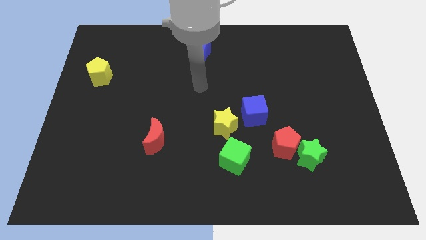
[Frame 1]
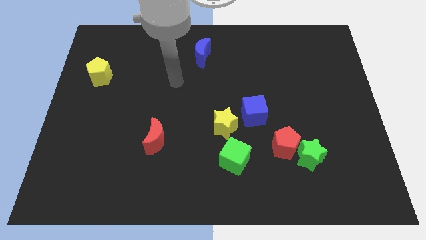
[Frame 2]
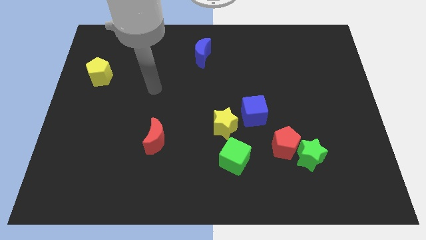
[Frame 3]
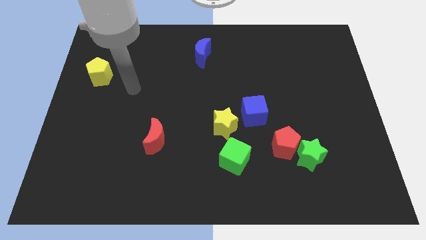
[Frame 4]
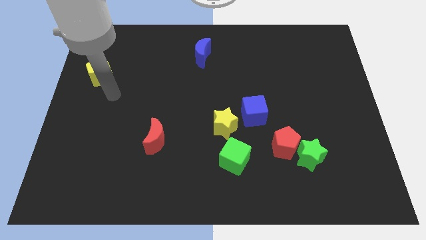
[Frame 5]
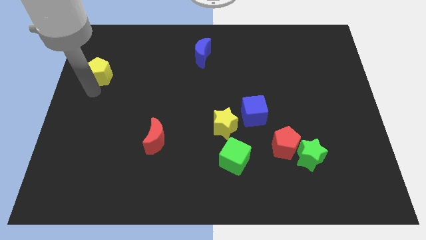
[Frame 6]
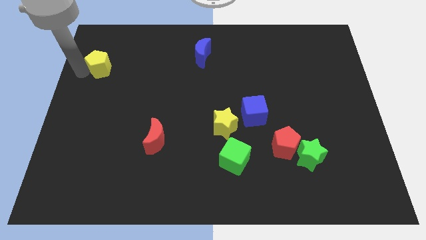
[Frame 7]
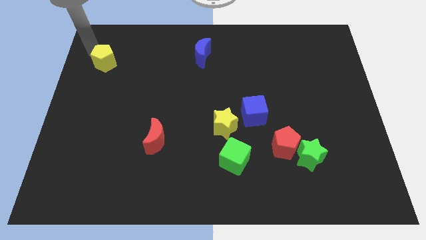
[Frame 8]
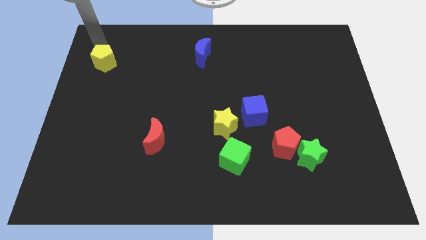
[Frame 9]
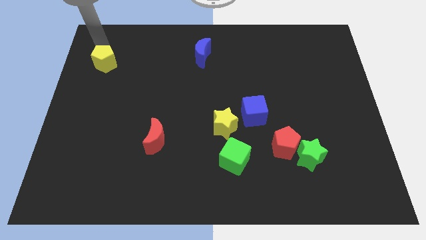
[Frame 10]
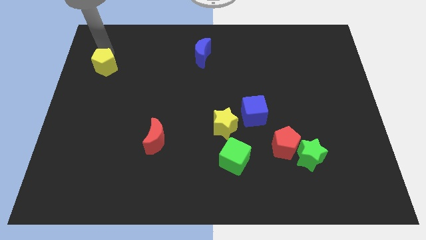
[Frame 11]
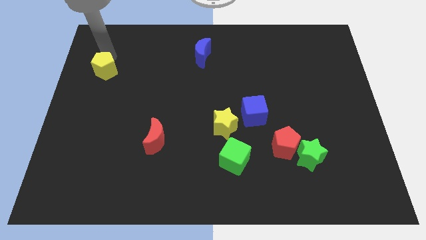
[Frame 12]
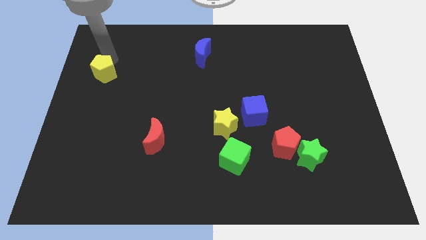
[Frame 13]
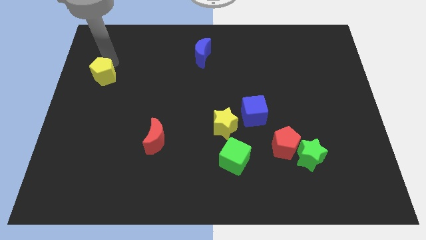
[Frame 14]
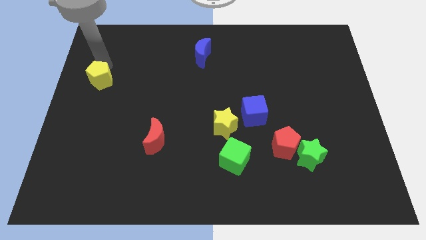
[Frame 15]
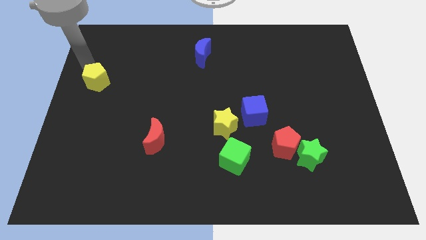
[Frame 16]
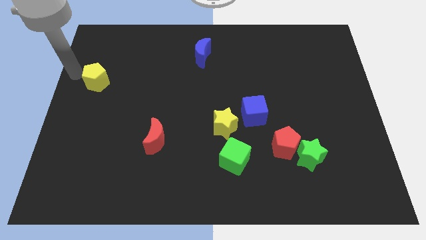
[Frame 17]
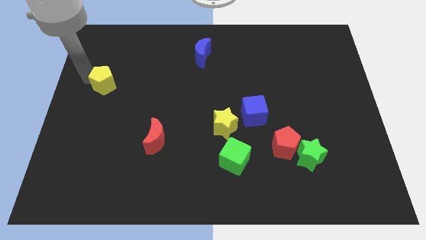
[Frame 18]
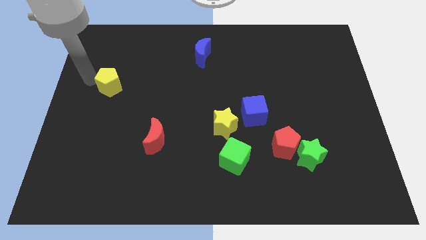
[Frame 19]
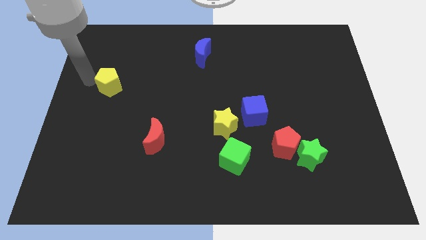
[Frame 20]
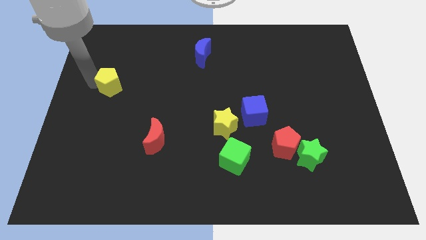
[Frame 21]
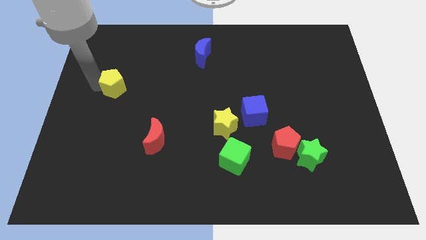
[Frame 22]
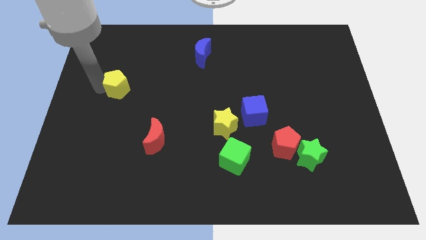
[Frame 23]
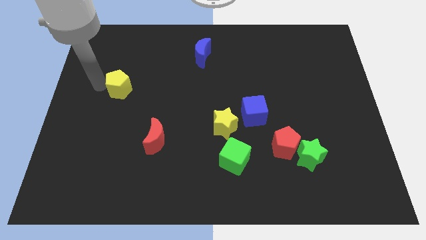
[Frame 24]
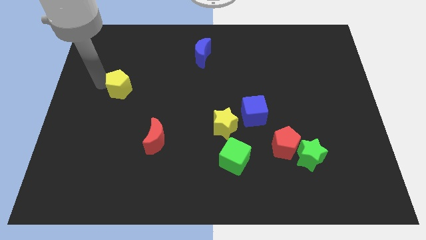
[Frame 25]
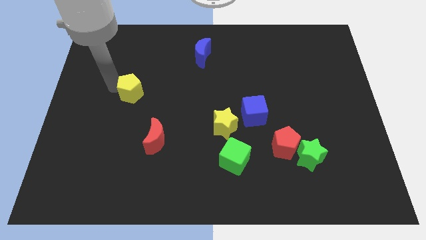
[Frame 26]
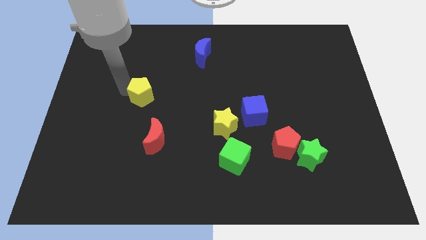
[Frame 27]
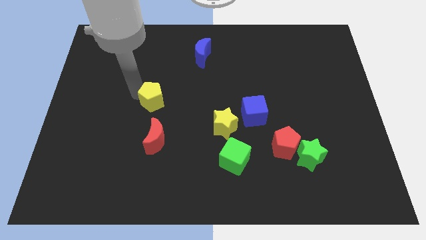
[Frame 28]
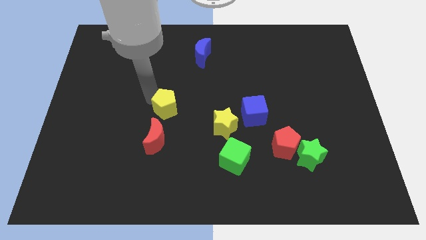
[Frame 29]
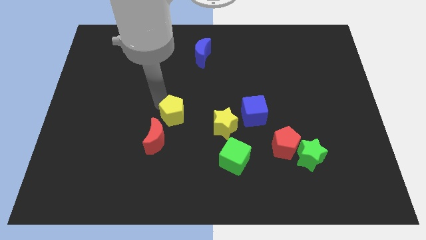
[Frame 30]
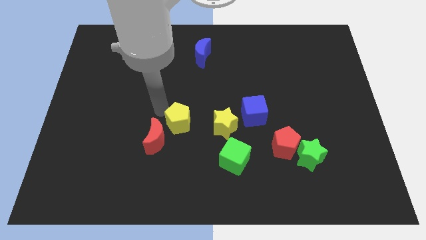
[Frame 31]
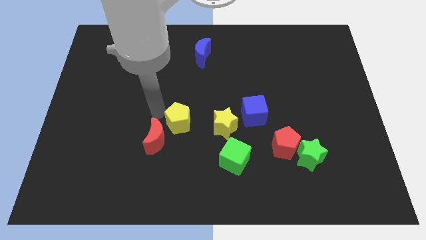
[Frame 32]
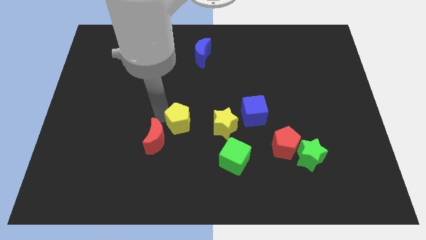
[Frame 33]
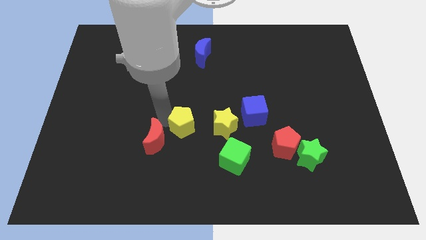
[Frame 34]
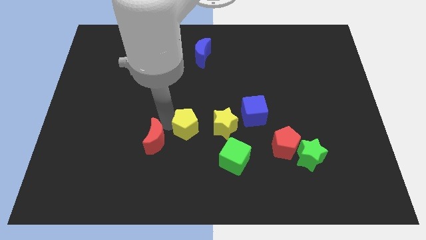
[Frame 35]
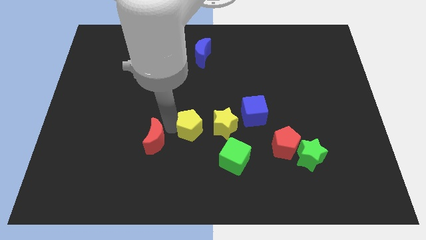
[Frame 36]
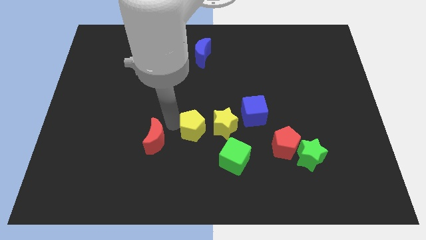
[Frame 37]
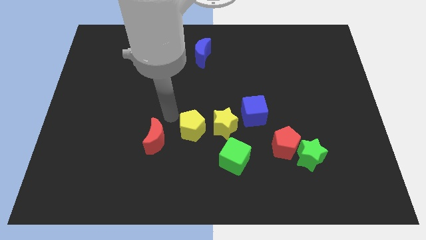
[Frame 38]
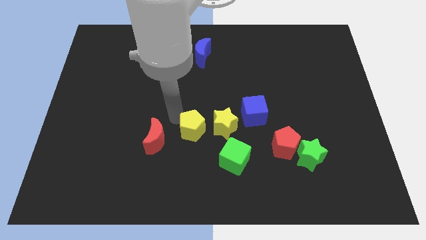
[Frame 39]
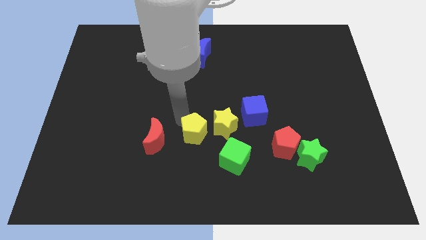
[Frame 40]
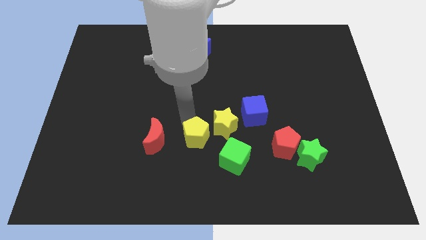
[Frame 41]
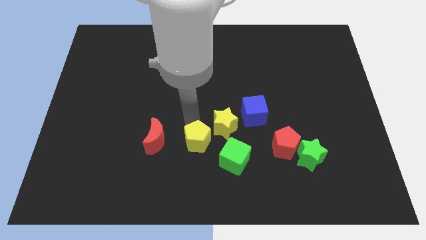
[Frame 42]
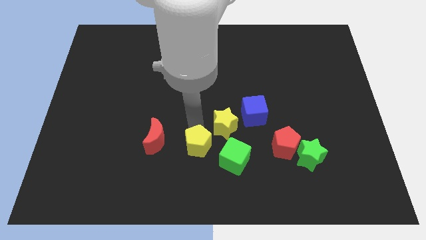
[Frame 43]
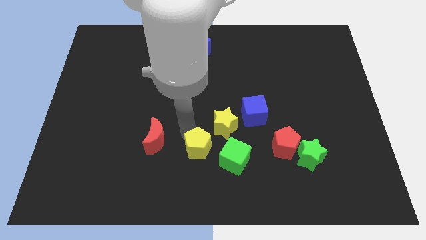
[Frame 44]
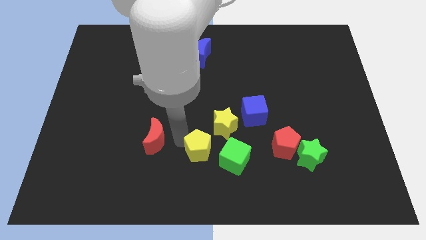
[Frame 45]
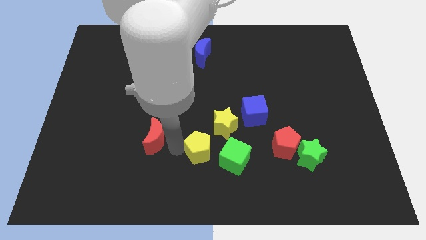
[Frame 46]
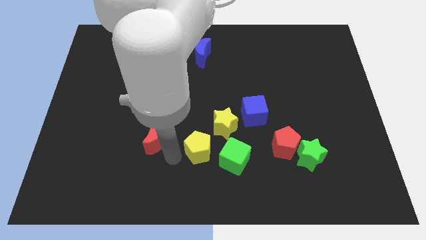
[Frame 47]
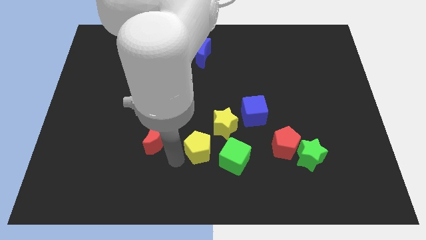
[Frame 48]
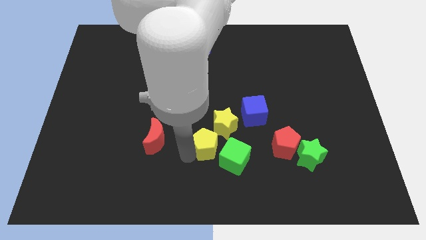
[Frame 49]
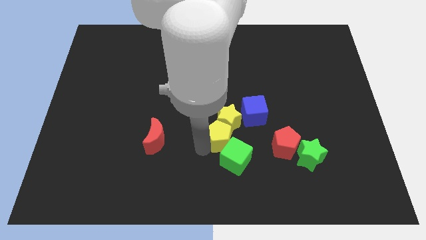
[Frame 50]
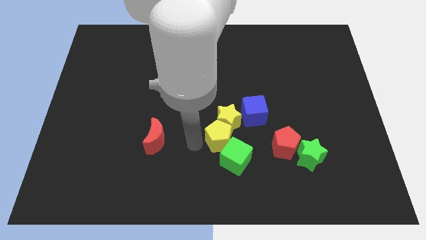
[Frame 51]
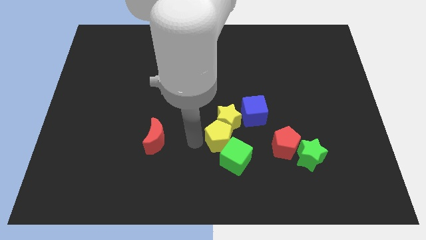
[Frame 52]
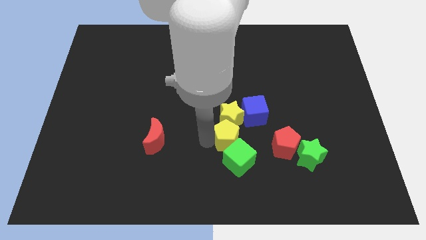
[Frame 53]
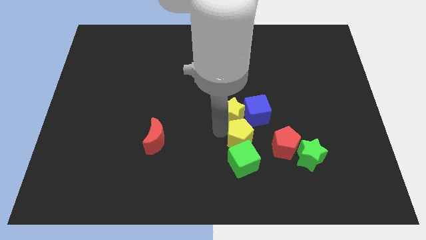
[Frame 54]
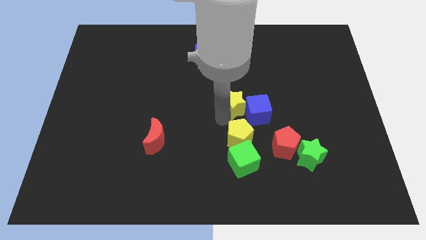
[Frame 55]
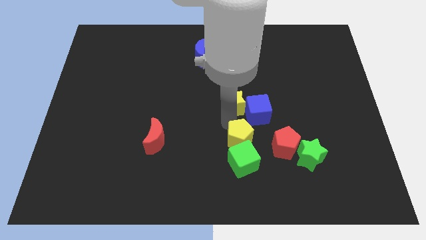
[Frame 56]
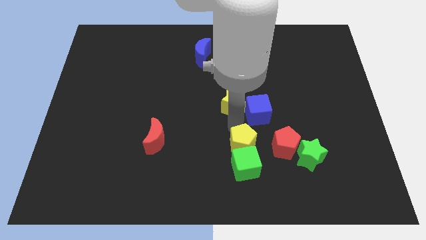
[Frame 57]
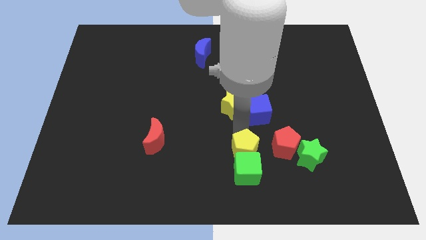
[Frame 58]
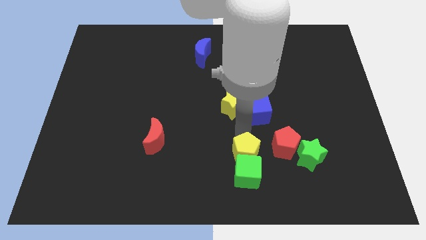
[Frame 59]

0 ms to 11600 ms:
move the yellow pentagon diagonally down and to the left of the red pentagon
